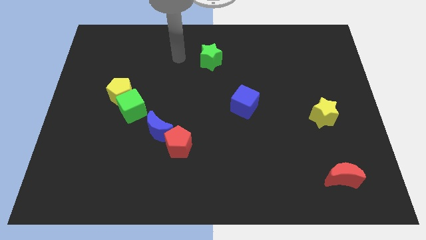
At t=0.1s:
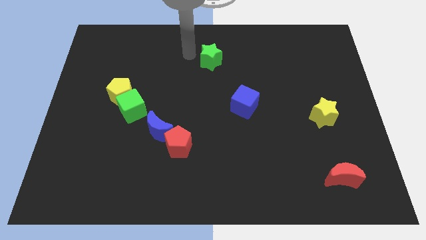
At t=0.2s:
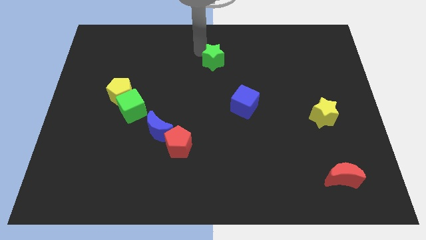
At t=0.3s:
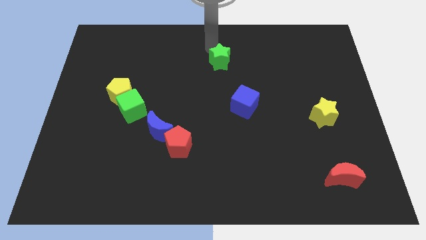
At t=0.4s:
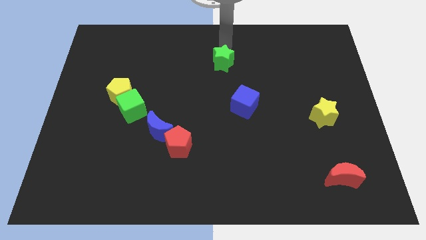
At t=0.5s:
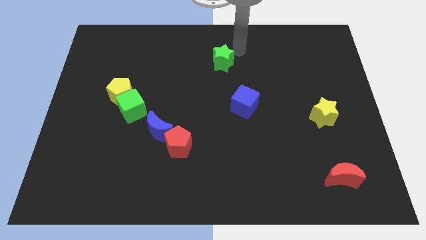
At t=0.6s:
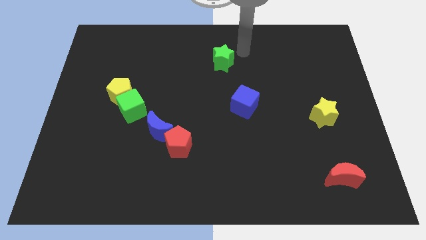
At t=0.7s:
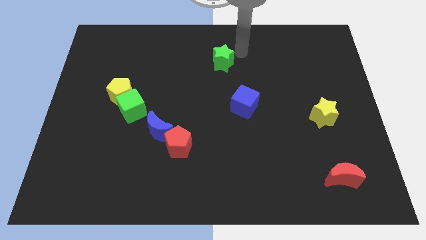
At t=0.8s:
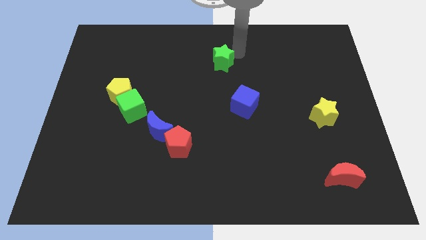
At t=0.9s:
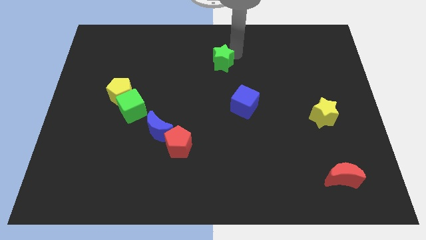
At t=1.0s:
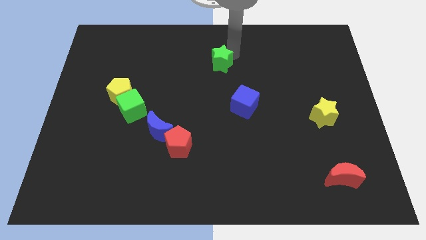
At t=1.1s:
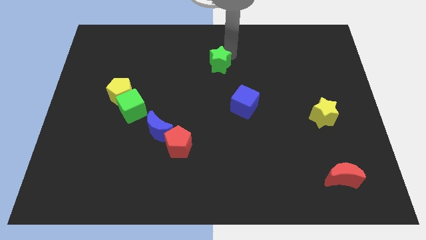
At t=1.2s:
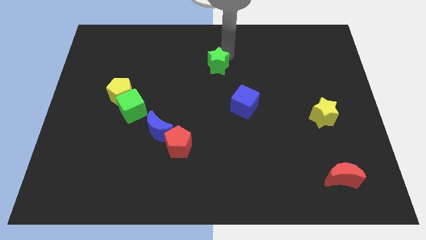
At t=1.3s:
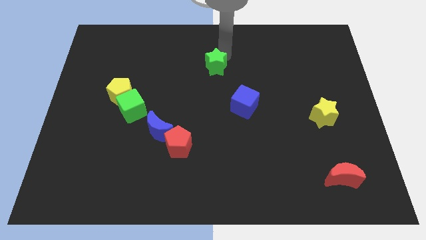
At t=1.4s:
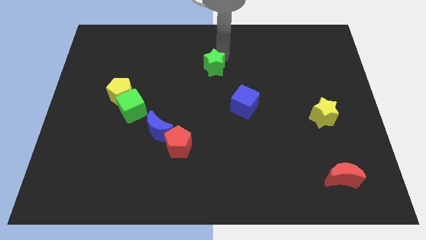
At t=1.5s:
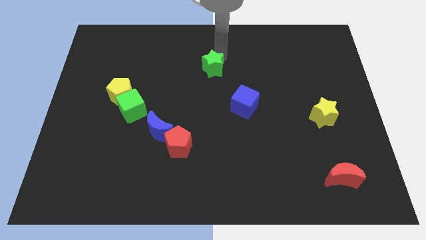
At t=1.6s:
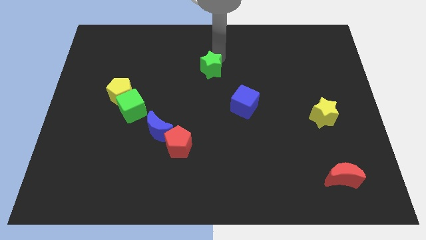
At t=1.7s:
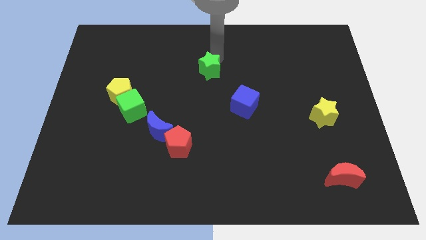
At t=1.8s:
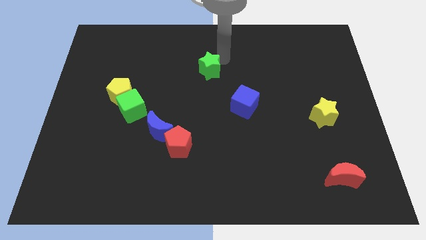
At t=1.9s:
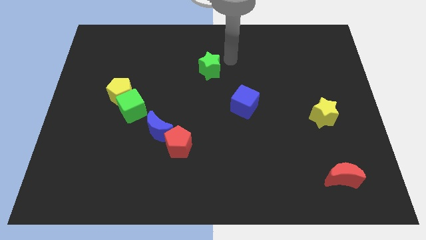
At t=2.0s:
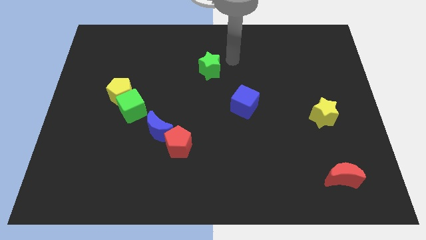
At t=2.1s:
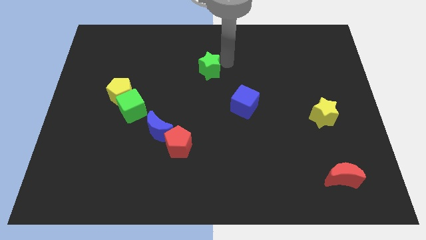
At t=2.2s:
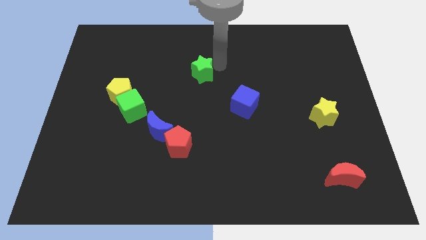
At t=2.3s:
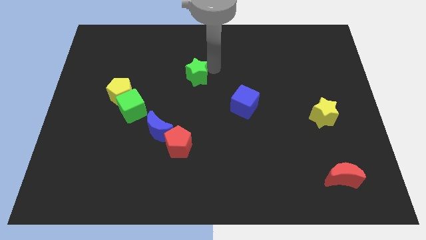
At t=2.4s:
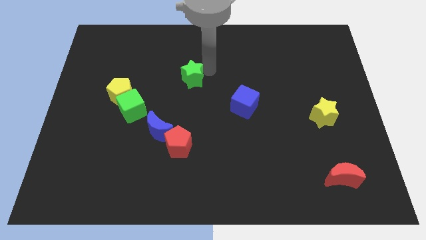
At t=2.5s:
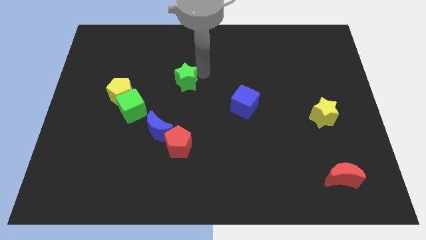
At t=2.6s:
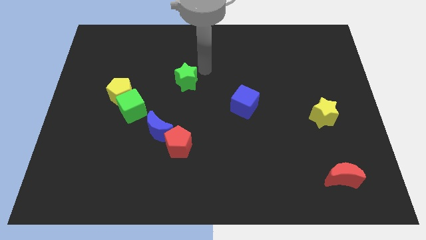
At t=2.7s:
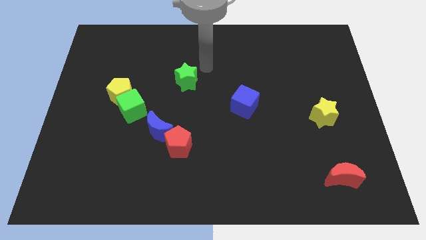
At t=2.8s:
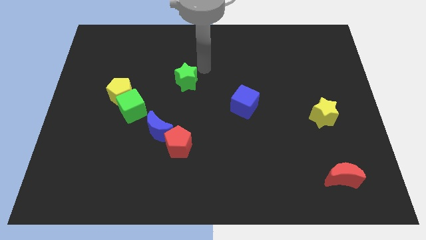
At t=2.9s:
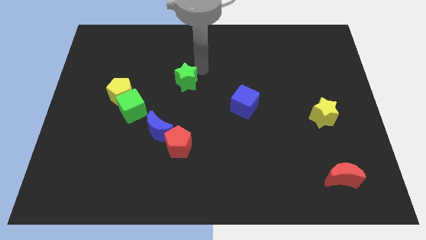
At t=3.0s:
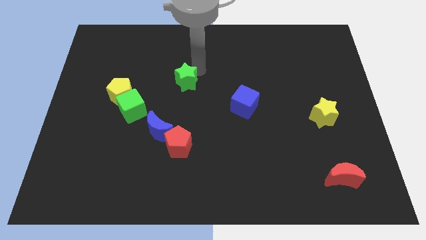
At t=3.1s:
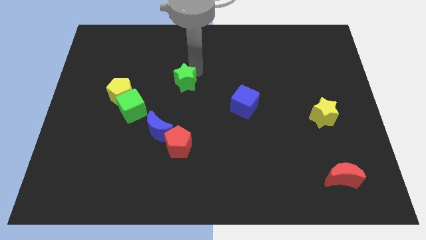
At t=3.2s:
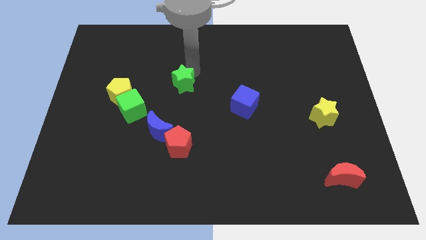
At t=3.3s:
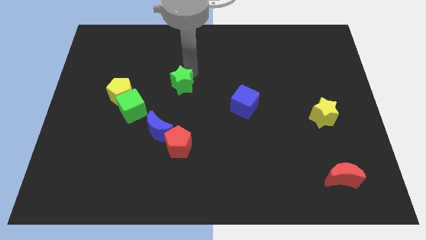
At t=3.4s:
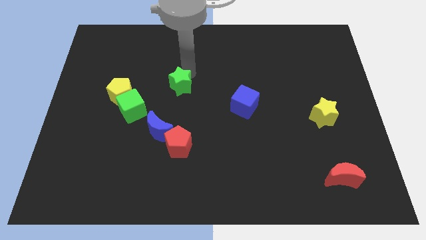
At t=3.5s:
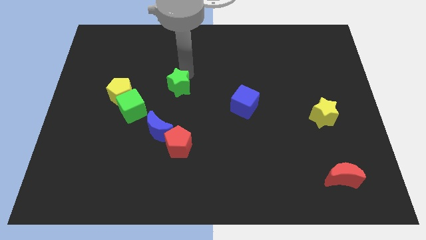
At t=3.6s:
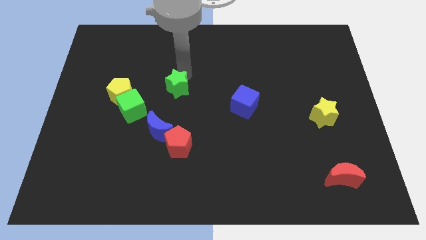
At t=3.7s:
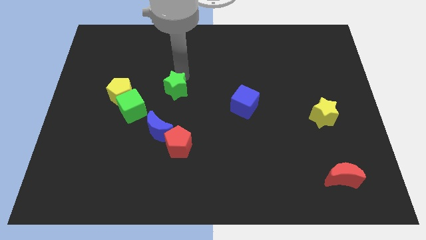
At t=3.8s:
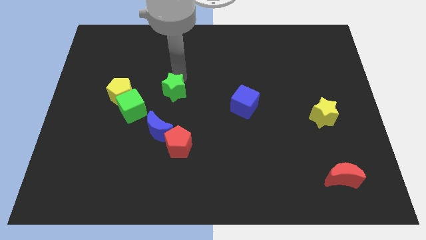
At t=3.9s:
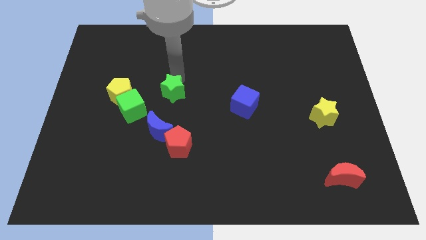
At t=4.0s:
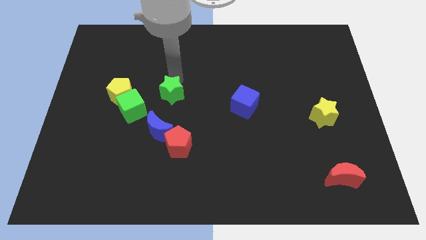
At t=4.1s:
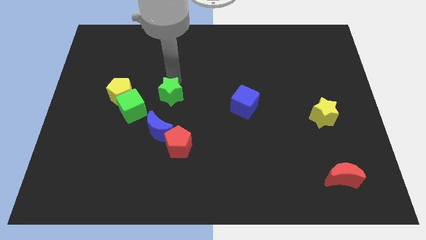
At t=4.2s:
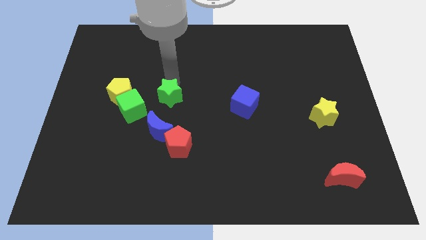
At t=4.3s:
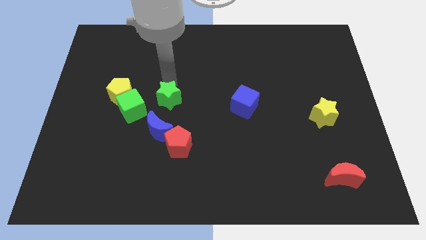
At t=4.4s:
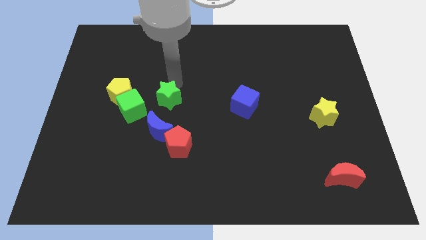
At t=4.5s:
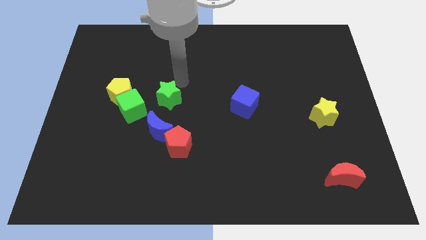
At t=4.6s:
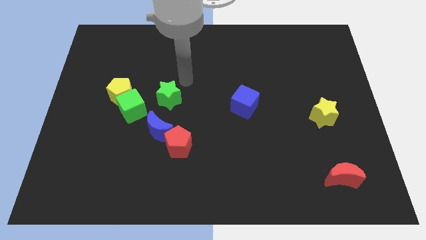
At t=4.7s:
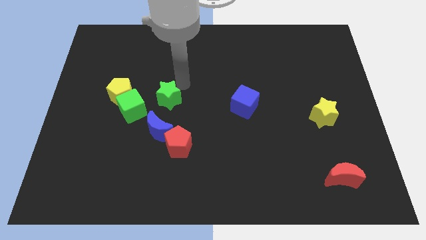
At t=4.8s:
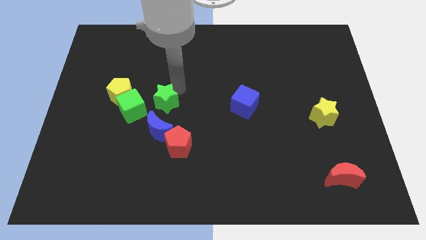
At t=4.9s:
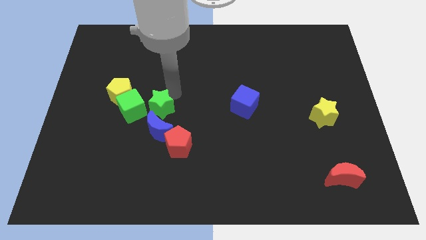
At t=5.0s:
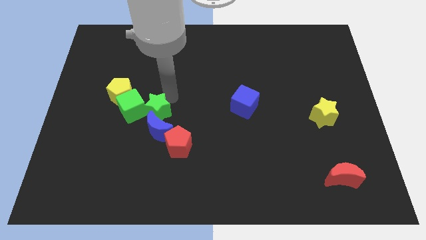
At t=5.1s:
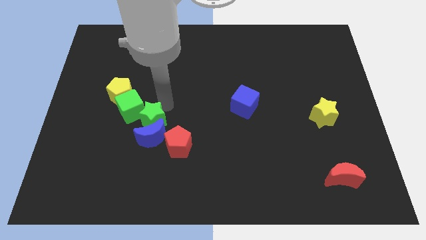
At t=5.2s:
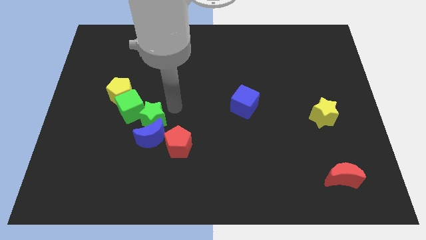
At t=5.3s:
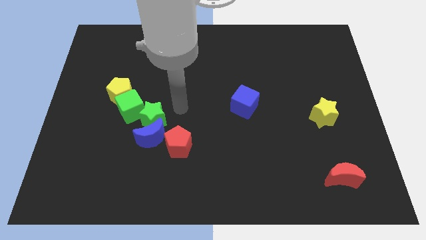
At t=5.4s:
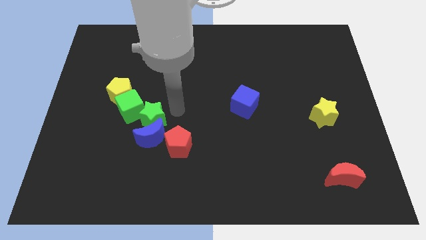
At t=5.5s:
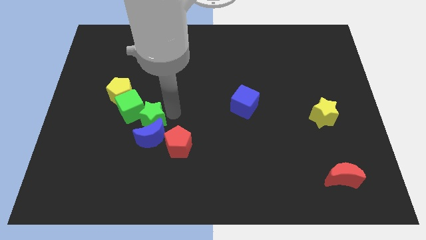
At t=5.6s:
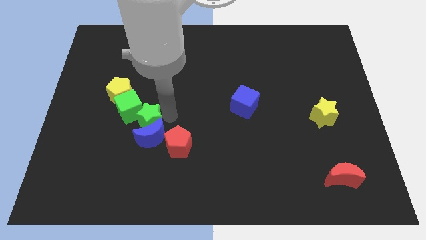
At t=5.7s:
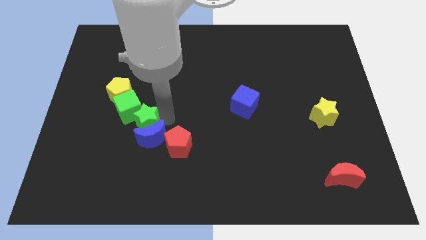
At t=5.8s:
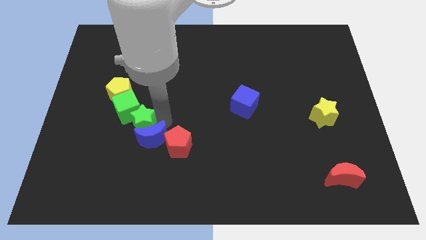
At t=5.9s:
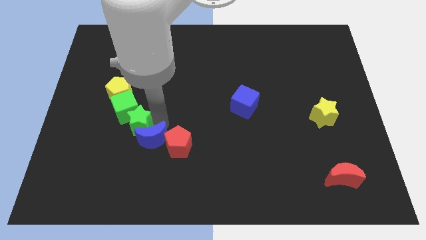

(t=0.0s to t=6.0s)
push the green star to the left side of the blue moon
